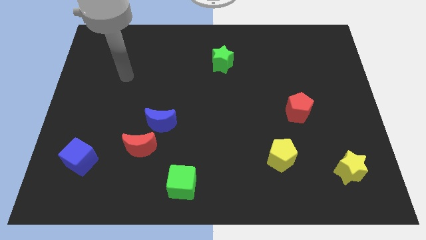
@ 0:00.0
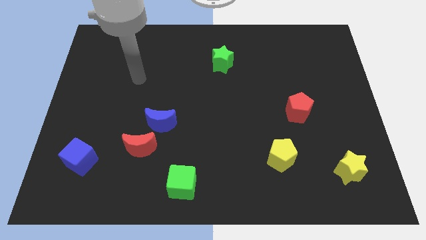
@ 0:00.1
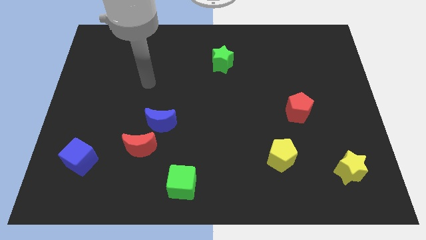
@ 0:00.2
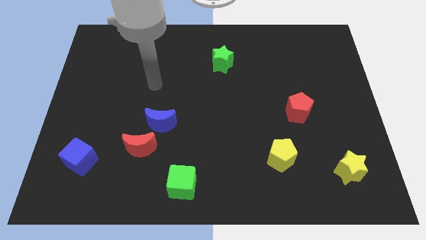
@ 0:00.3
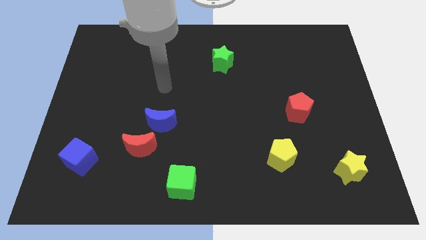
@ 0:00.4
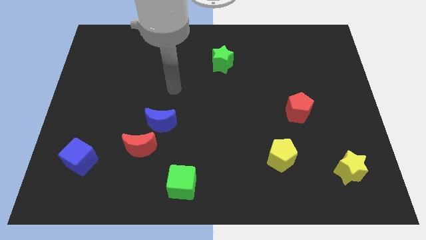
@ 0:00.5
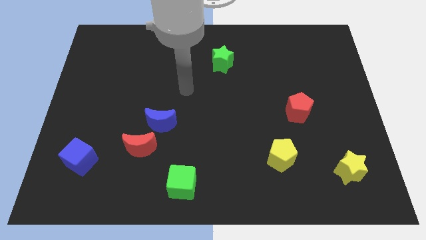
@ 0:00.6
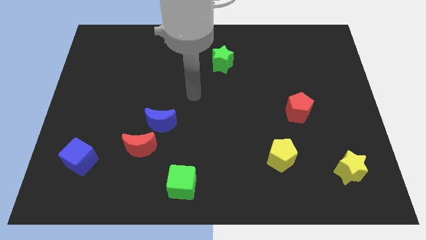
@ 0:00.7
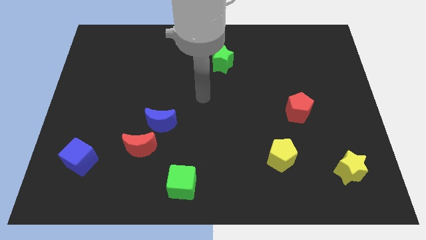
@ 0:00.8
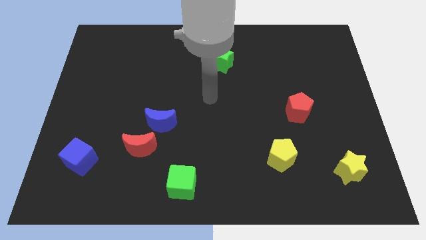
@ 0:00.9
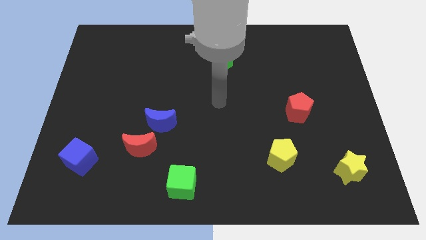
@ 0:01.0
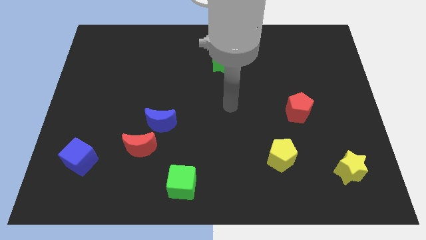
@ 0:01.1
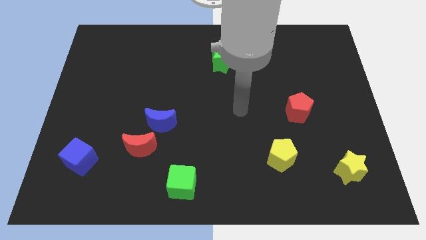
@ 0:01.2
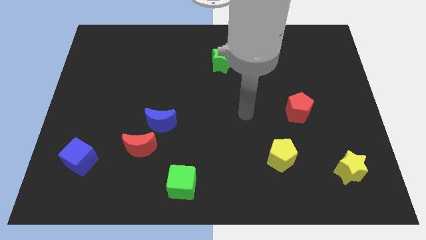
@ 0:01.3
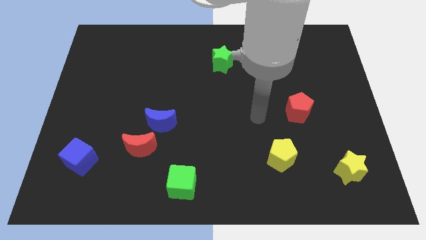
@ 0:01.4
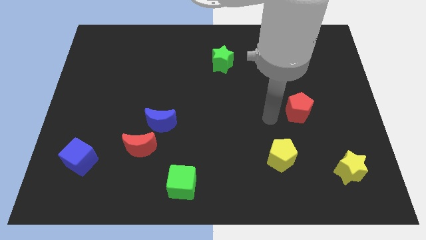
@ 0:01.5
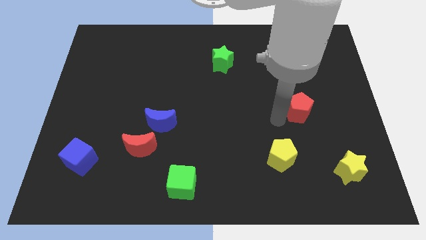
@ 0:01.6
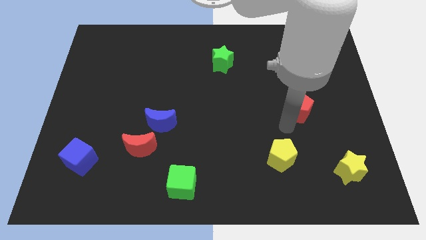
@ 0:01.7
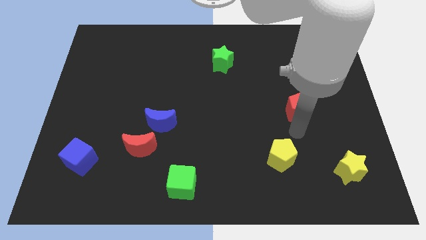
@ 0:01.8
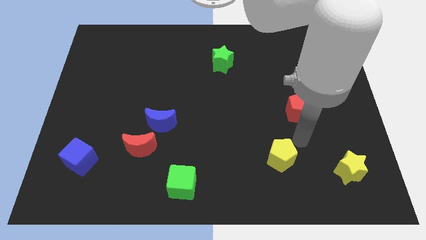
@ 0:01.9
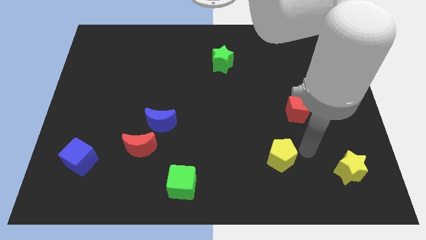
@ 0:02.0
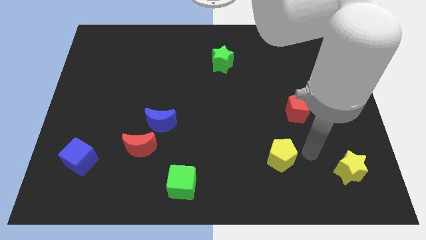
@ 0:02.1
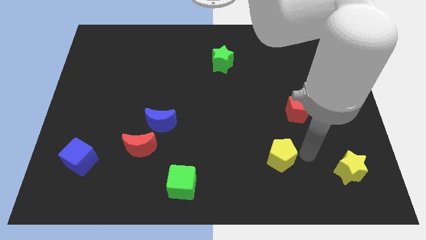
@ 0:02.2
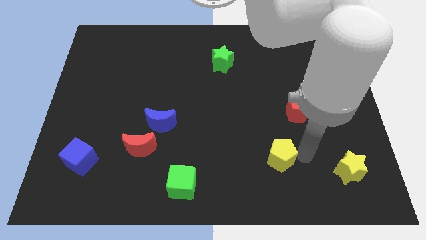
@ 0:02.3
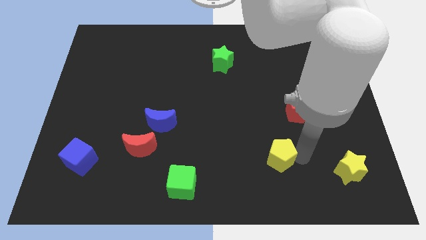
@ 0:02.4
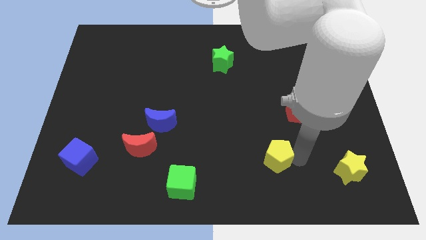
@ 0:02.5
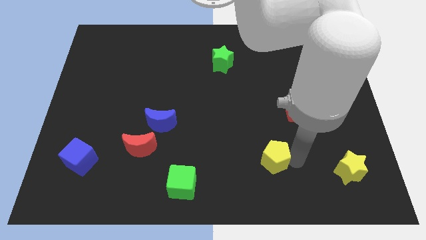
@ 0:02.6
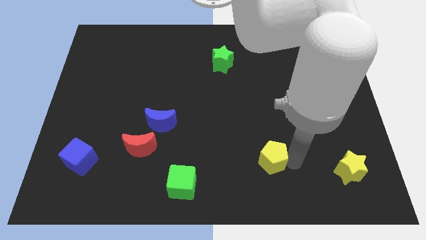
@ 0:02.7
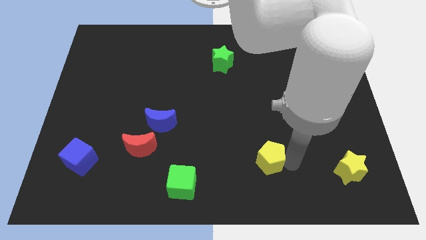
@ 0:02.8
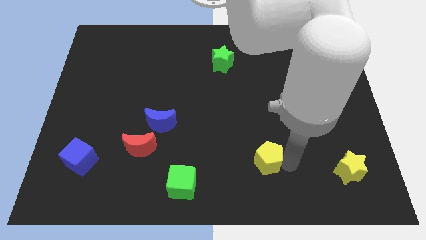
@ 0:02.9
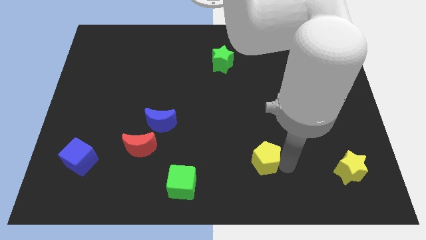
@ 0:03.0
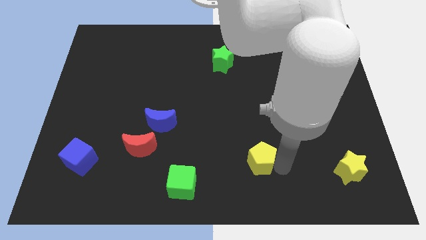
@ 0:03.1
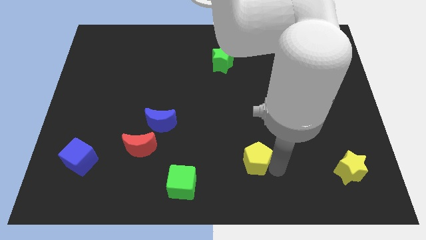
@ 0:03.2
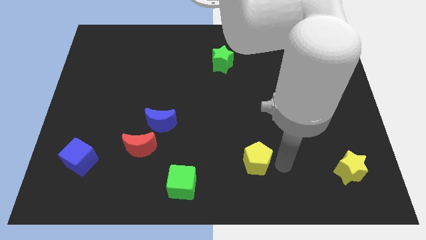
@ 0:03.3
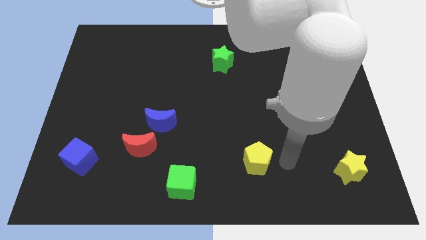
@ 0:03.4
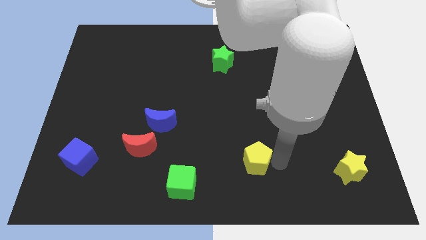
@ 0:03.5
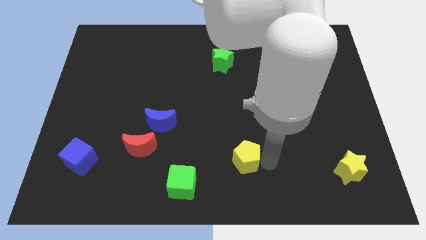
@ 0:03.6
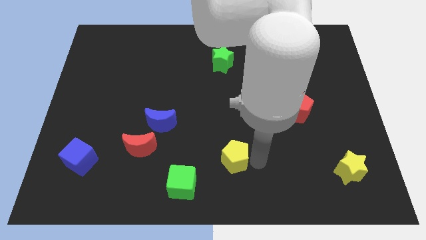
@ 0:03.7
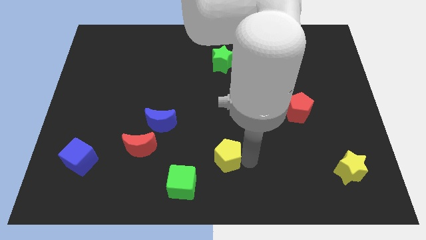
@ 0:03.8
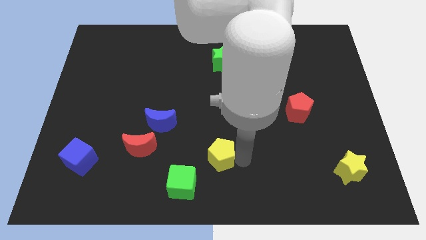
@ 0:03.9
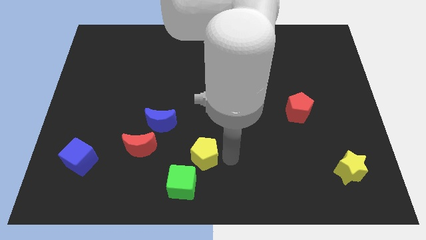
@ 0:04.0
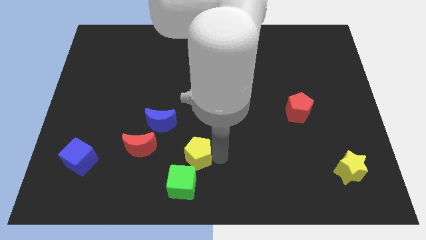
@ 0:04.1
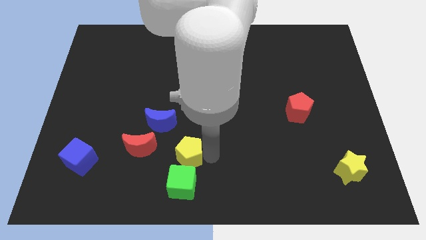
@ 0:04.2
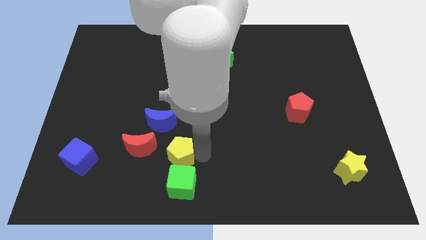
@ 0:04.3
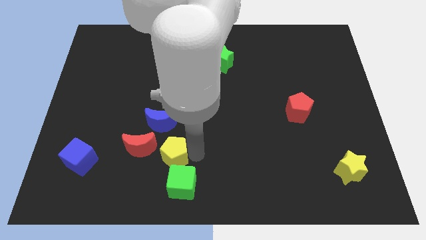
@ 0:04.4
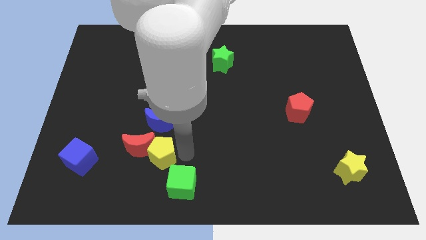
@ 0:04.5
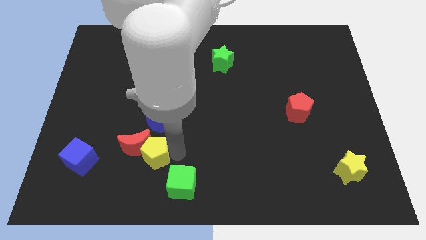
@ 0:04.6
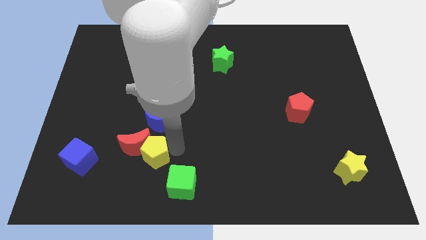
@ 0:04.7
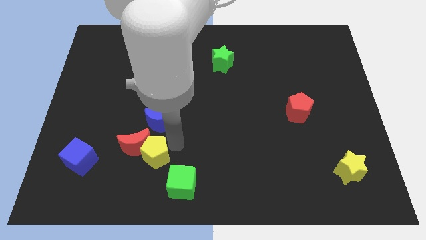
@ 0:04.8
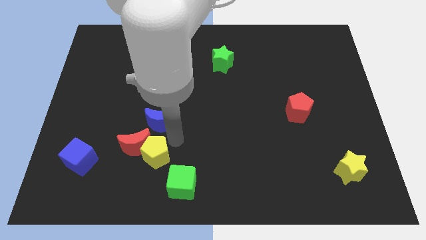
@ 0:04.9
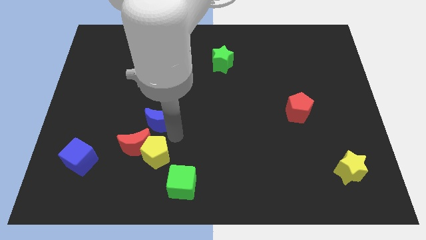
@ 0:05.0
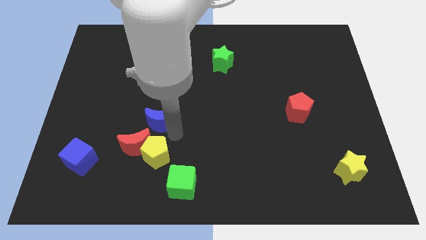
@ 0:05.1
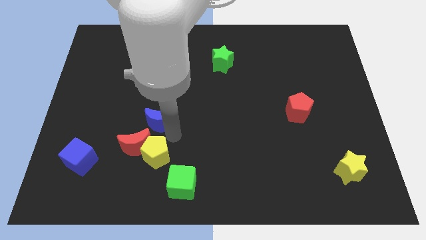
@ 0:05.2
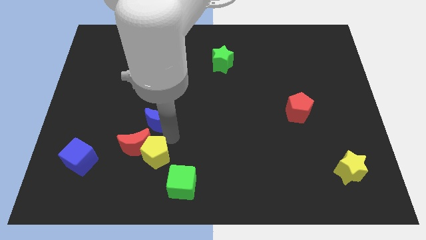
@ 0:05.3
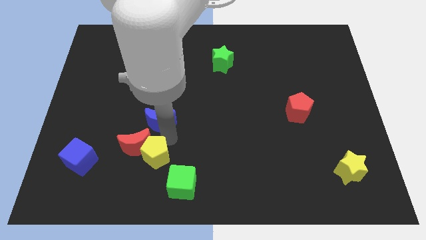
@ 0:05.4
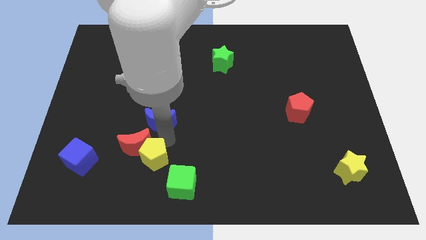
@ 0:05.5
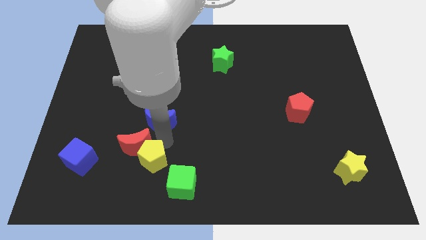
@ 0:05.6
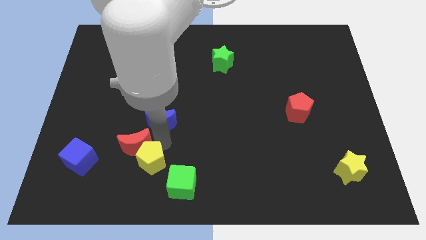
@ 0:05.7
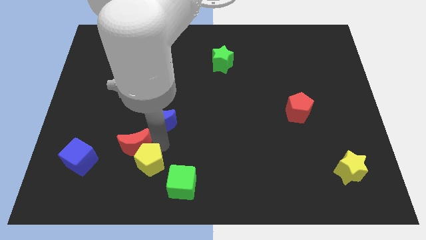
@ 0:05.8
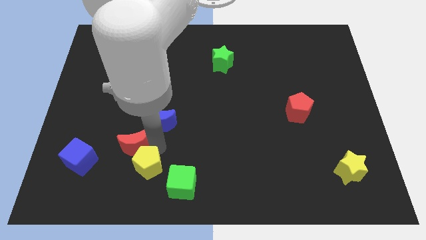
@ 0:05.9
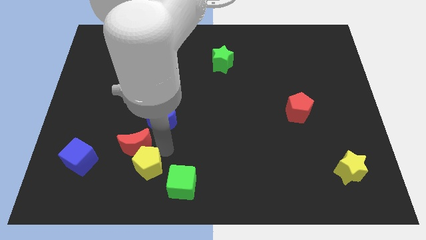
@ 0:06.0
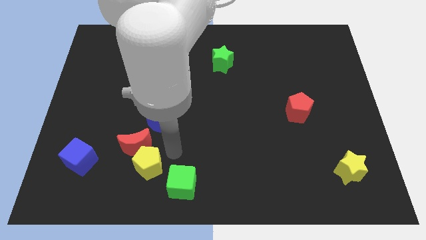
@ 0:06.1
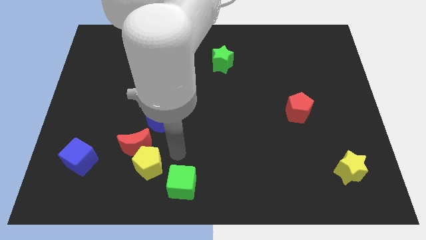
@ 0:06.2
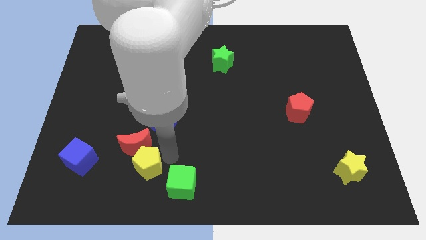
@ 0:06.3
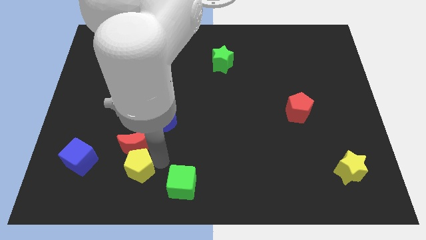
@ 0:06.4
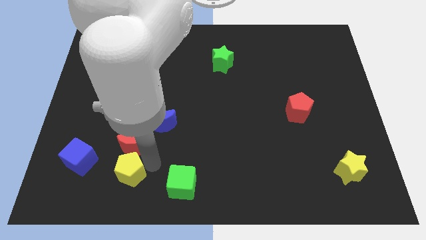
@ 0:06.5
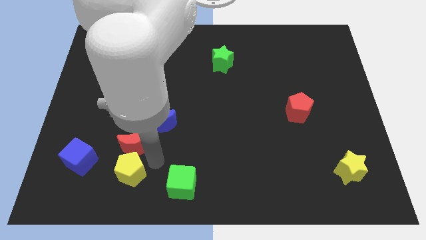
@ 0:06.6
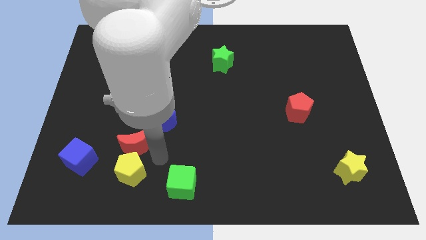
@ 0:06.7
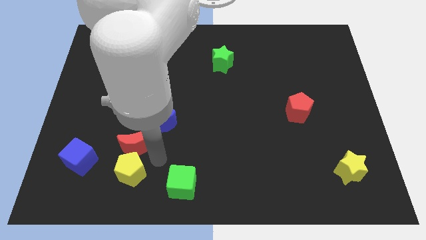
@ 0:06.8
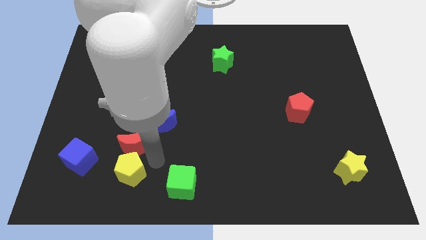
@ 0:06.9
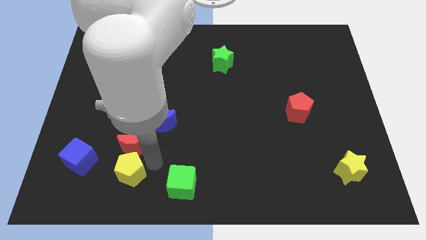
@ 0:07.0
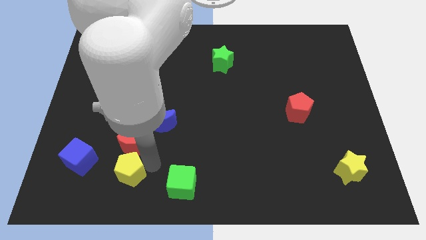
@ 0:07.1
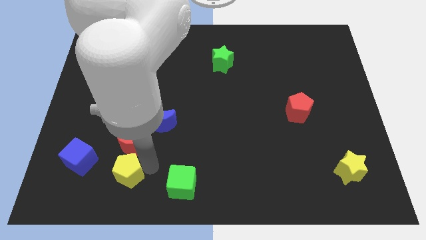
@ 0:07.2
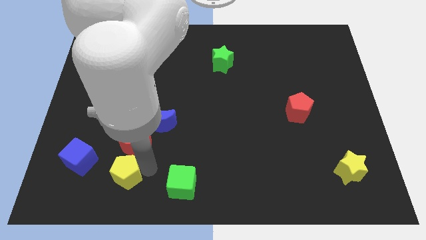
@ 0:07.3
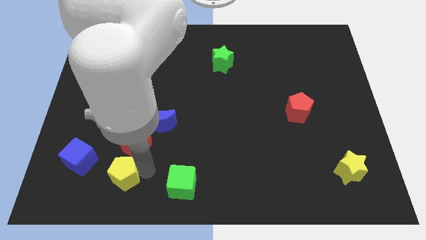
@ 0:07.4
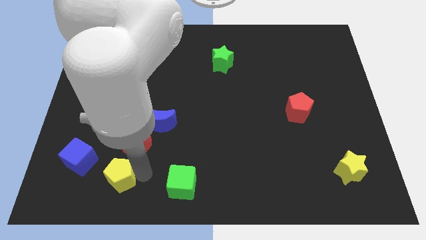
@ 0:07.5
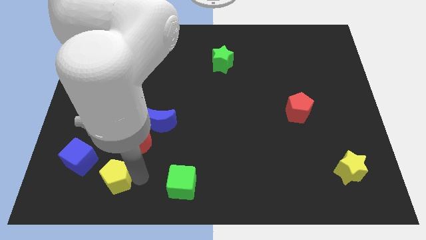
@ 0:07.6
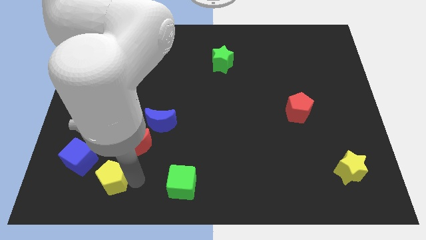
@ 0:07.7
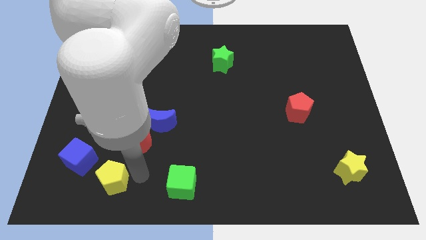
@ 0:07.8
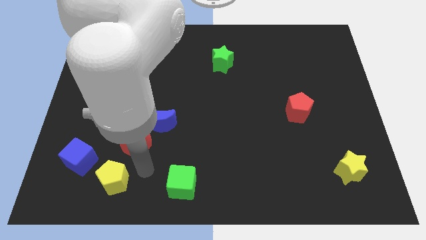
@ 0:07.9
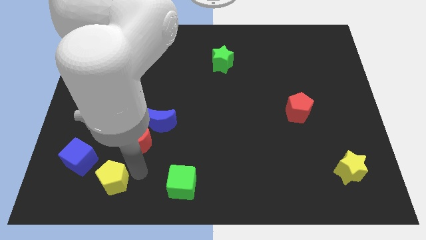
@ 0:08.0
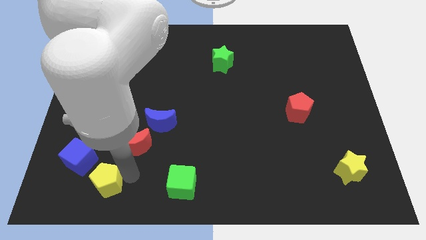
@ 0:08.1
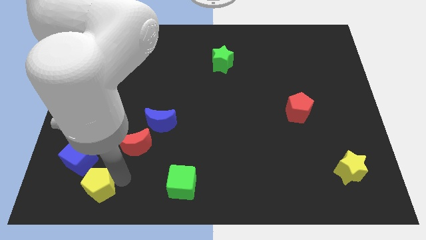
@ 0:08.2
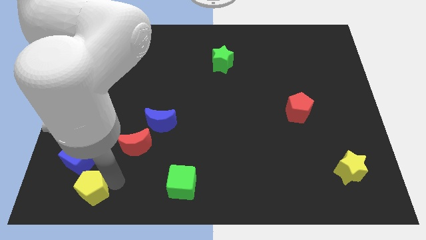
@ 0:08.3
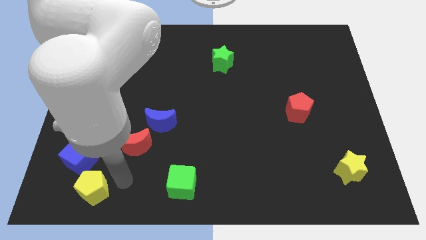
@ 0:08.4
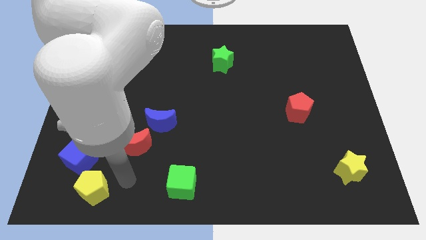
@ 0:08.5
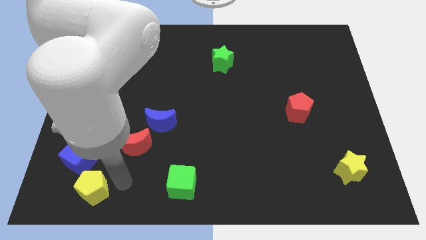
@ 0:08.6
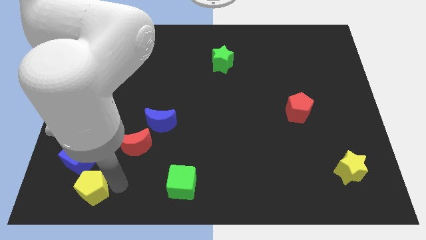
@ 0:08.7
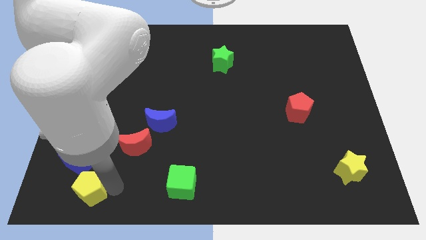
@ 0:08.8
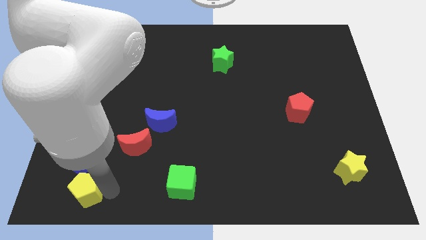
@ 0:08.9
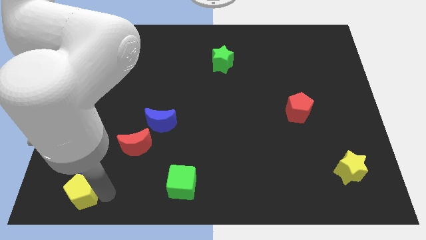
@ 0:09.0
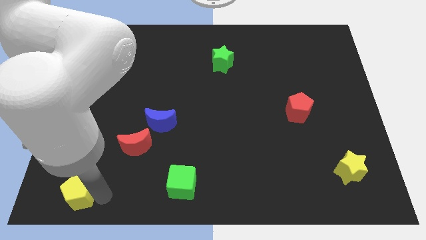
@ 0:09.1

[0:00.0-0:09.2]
put the yellow pentagon to the bottom left corner
